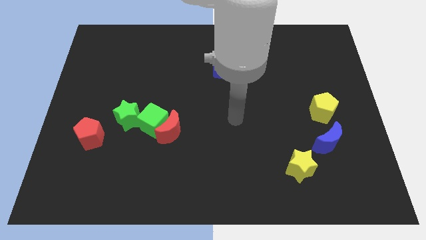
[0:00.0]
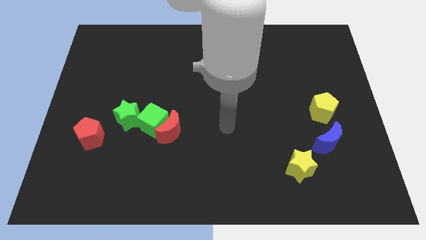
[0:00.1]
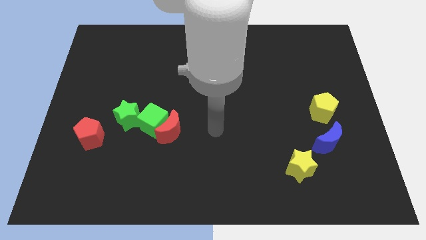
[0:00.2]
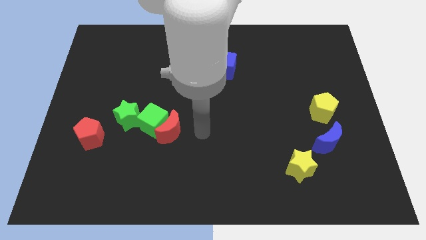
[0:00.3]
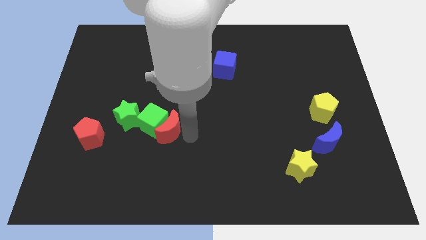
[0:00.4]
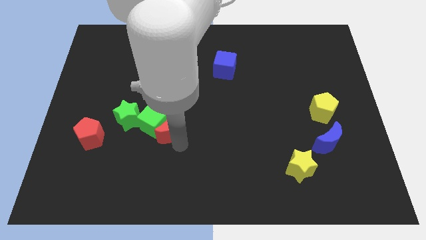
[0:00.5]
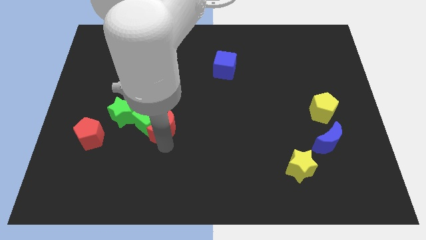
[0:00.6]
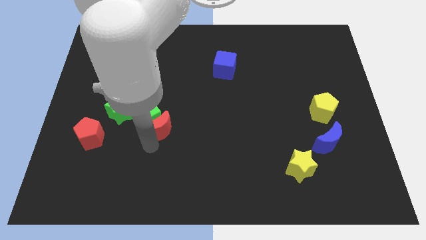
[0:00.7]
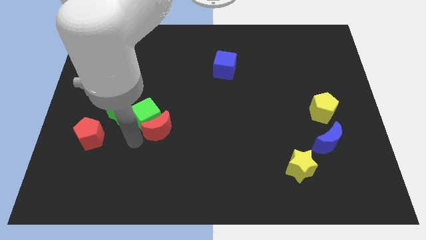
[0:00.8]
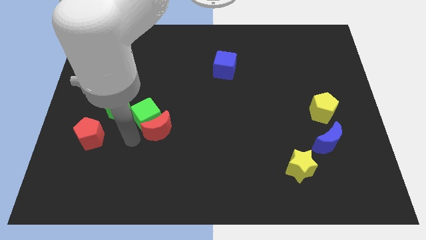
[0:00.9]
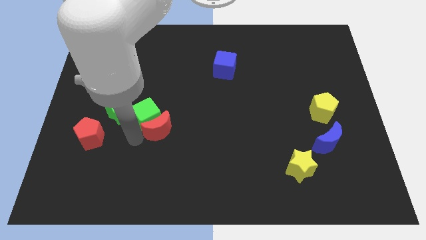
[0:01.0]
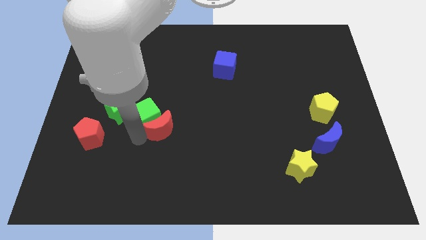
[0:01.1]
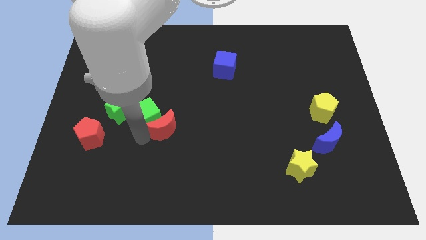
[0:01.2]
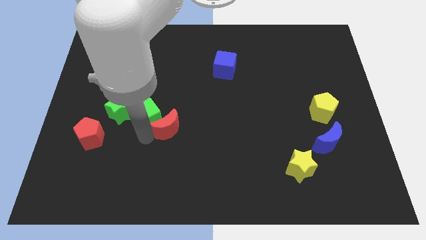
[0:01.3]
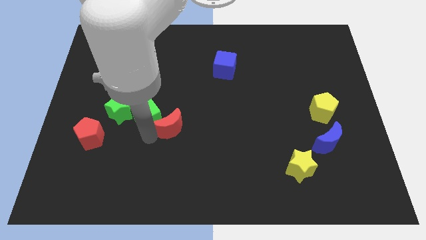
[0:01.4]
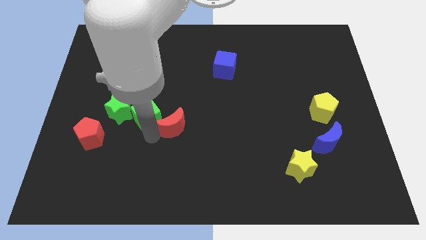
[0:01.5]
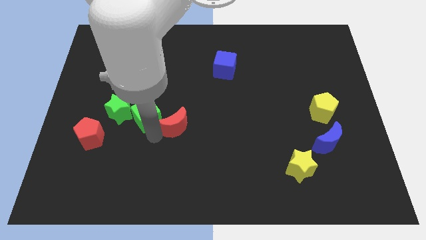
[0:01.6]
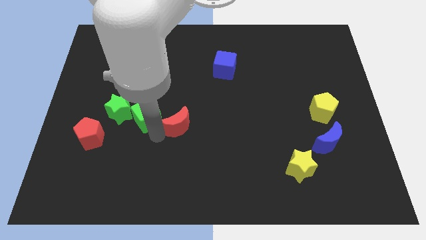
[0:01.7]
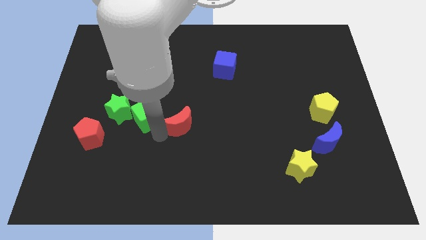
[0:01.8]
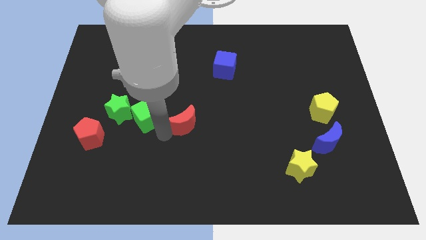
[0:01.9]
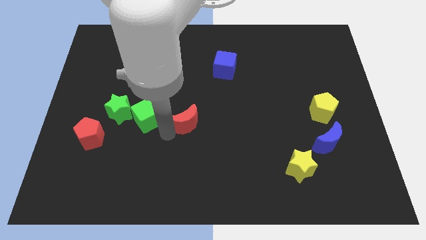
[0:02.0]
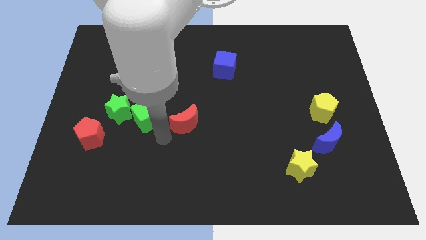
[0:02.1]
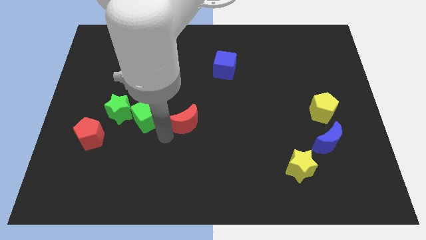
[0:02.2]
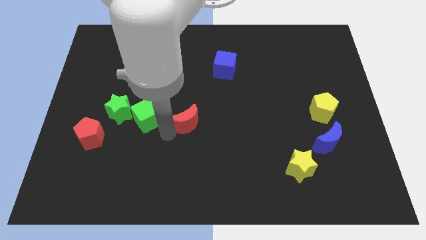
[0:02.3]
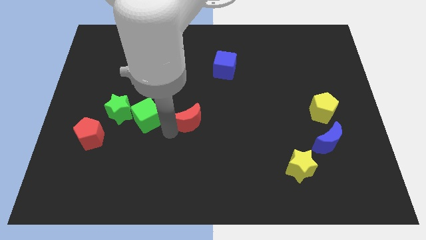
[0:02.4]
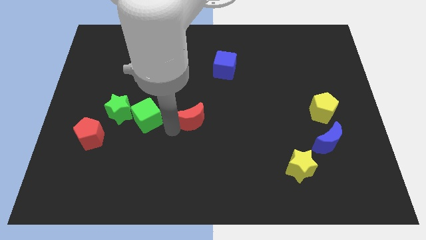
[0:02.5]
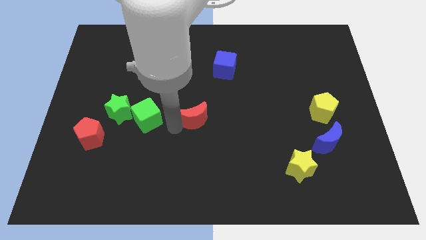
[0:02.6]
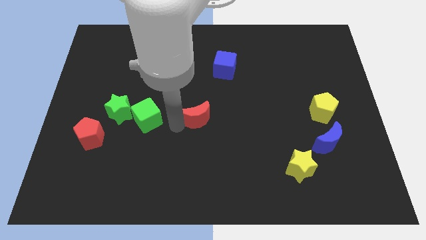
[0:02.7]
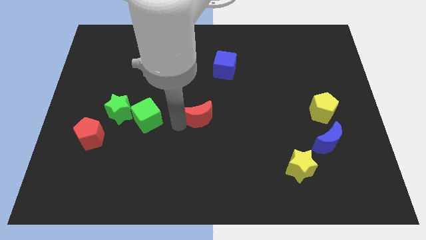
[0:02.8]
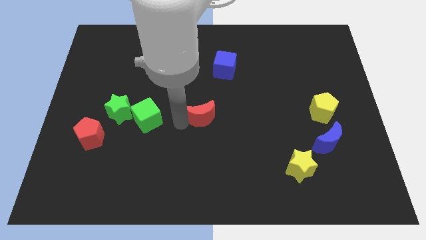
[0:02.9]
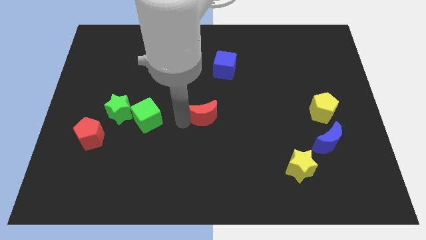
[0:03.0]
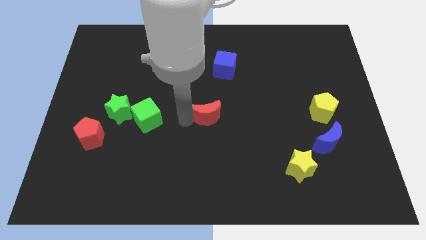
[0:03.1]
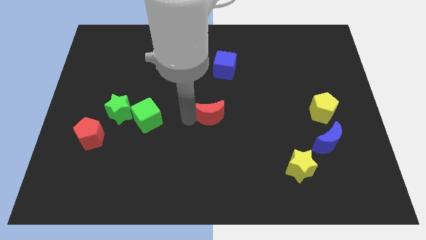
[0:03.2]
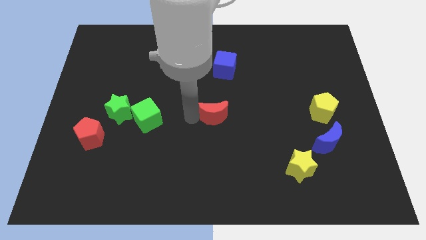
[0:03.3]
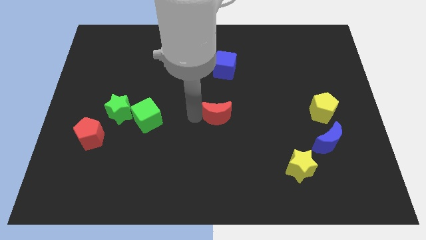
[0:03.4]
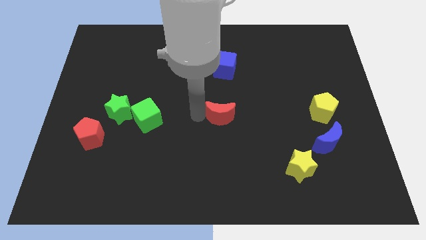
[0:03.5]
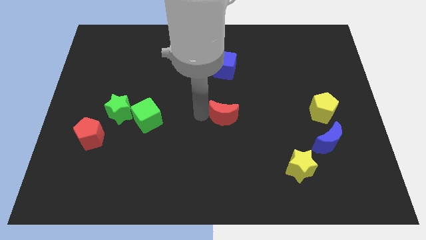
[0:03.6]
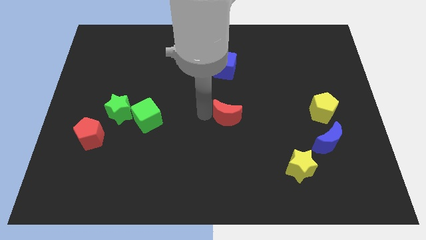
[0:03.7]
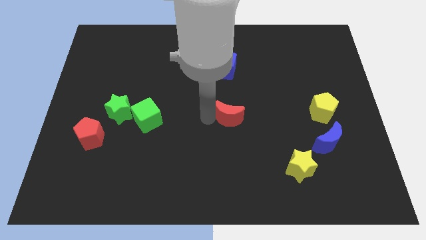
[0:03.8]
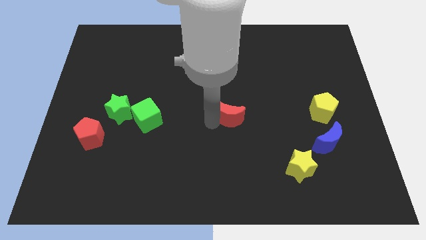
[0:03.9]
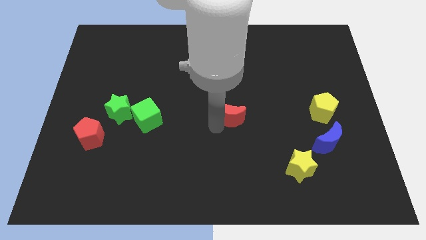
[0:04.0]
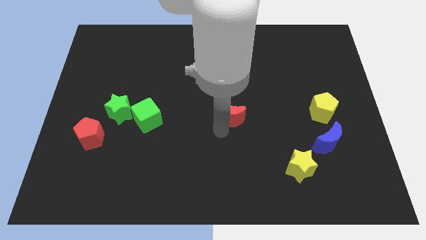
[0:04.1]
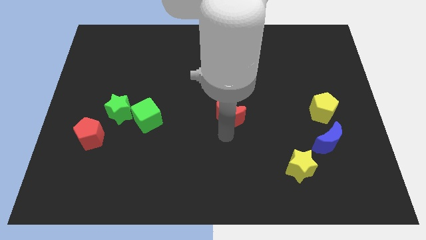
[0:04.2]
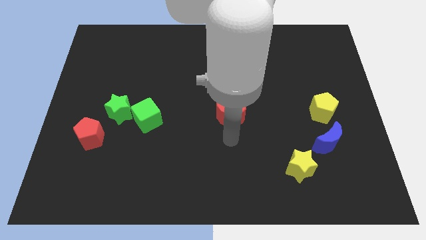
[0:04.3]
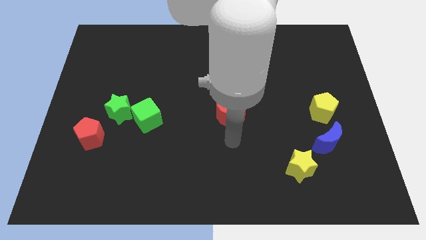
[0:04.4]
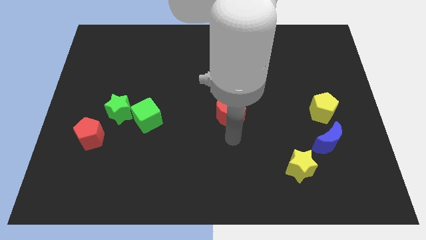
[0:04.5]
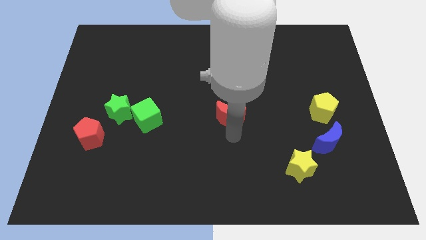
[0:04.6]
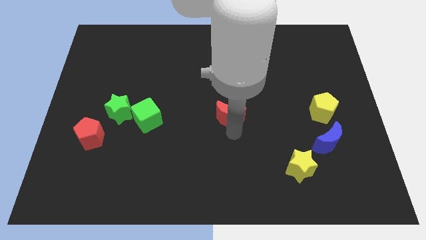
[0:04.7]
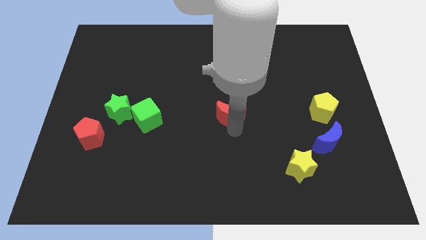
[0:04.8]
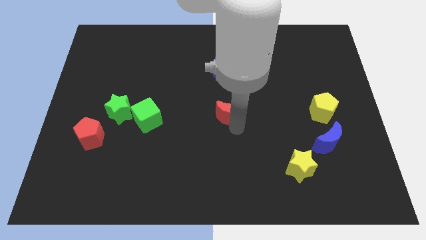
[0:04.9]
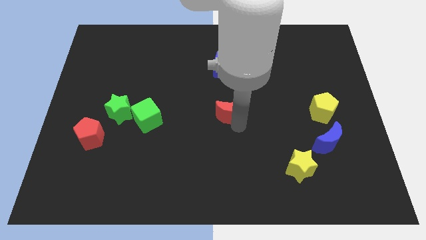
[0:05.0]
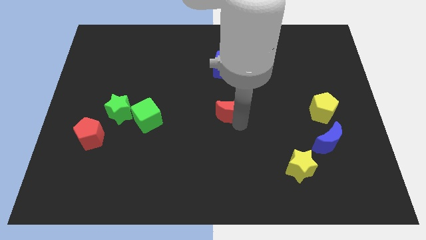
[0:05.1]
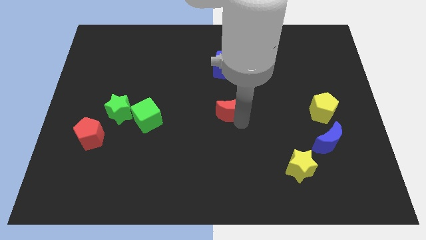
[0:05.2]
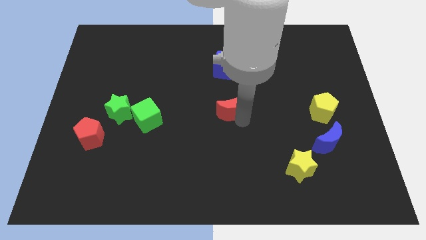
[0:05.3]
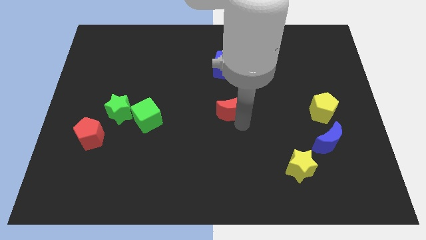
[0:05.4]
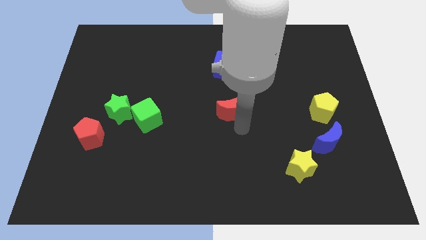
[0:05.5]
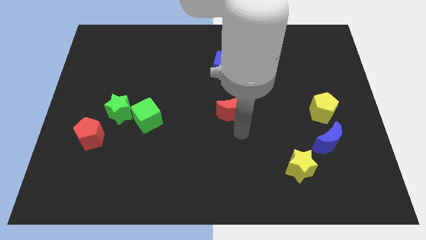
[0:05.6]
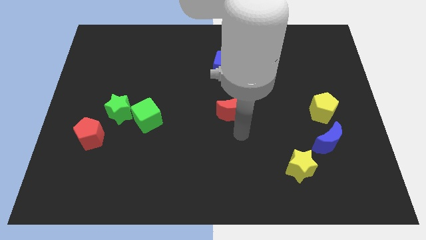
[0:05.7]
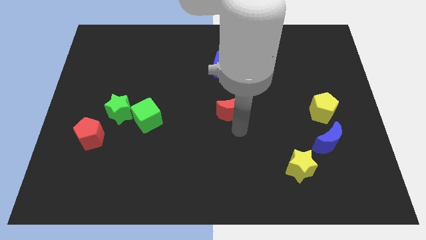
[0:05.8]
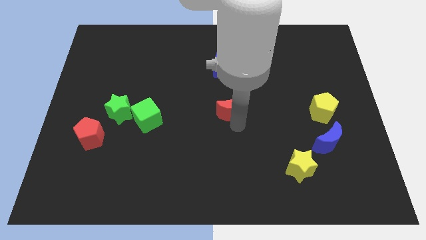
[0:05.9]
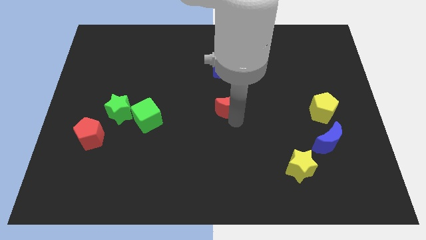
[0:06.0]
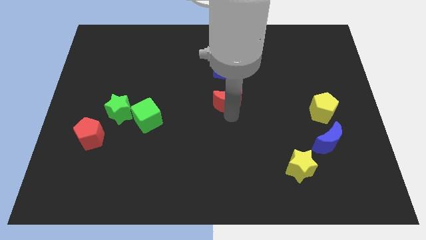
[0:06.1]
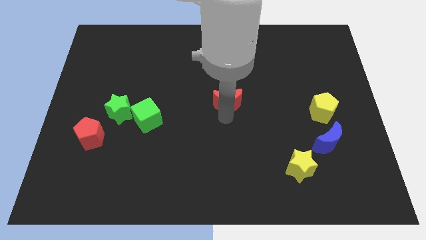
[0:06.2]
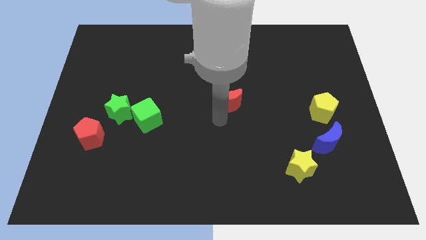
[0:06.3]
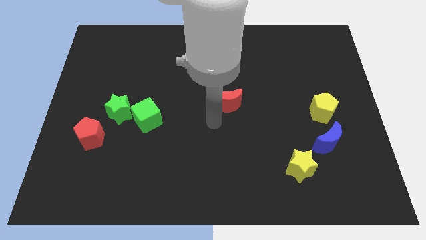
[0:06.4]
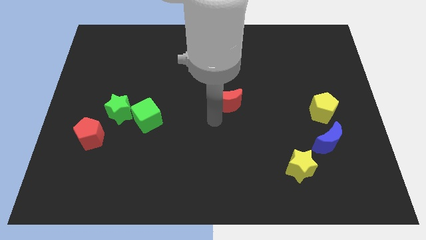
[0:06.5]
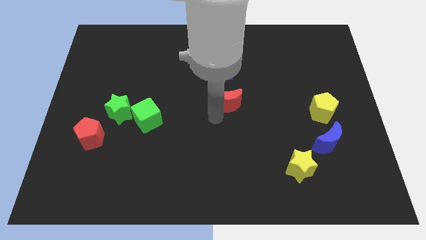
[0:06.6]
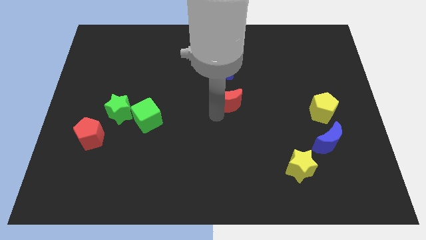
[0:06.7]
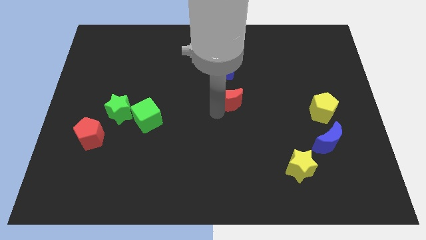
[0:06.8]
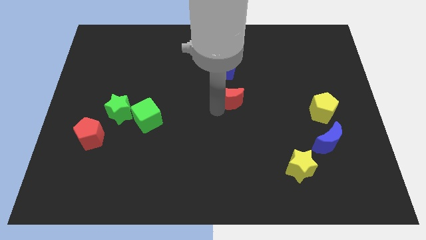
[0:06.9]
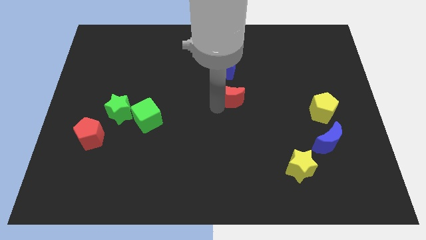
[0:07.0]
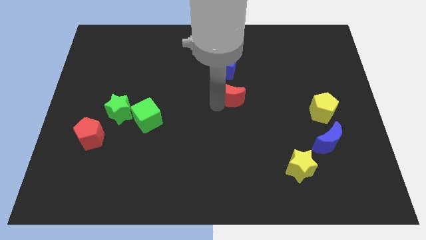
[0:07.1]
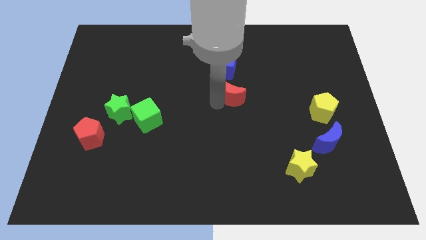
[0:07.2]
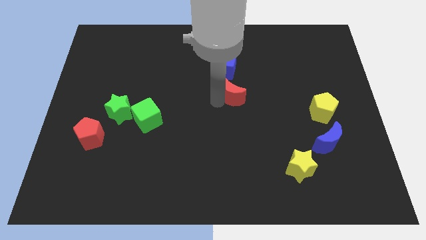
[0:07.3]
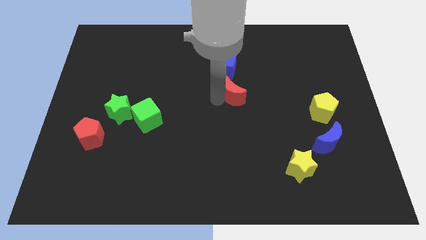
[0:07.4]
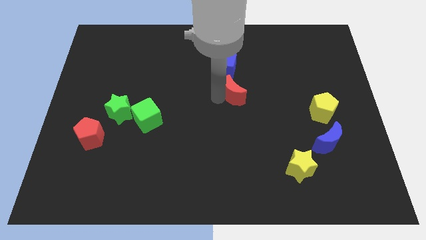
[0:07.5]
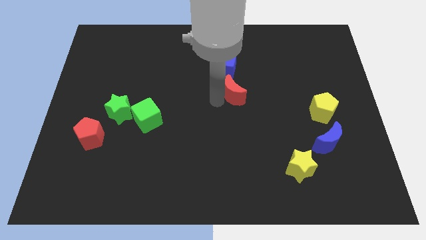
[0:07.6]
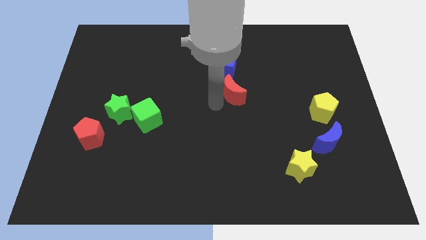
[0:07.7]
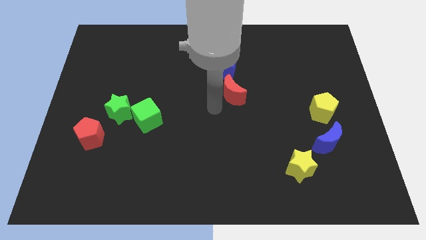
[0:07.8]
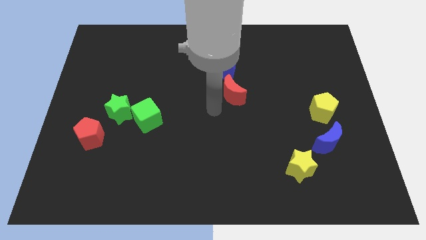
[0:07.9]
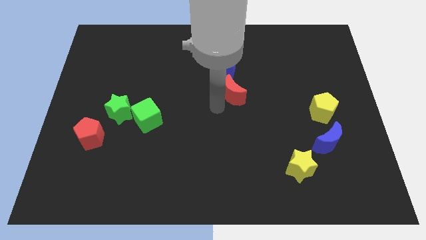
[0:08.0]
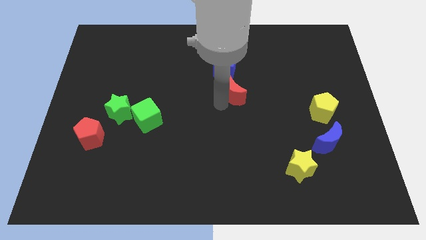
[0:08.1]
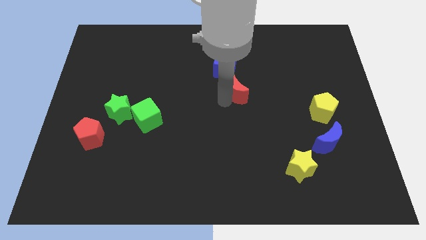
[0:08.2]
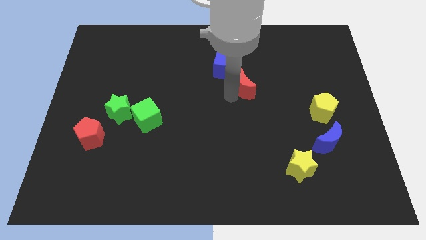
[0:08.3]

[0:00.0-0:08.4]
slide the red moon diagonally upwards and right
